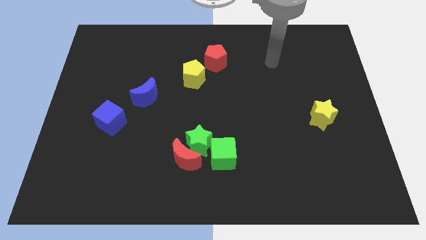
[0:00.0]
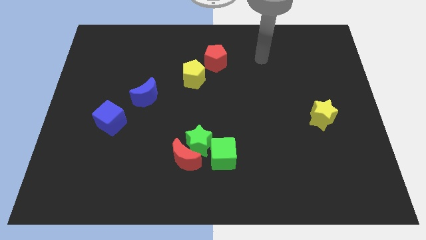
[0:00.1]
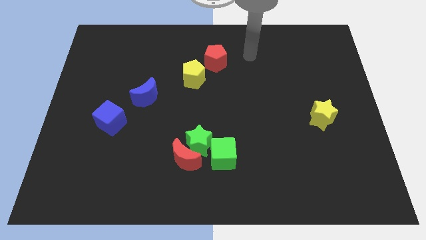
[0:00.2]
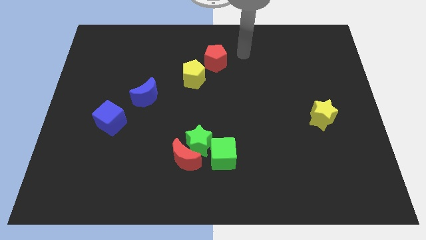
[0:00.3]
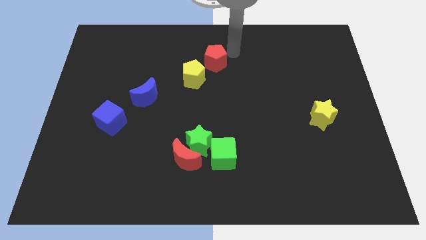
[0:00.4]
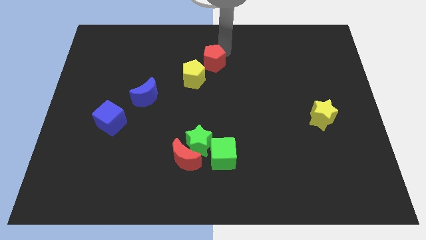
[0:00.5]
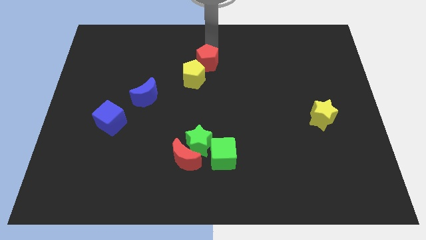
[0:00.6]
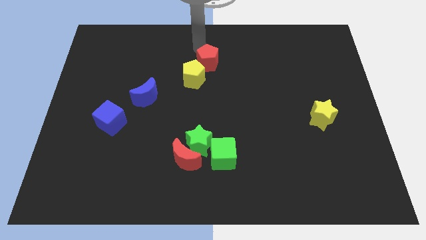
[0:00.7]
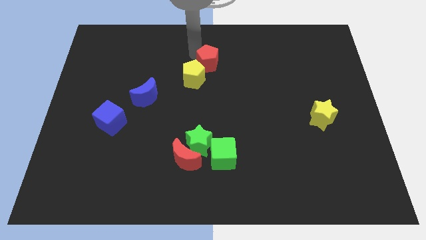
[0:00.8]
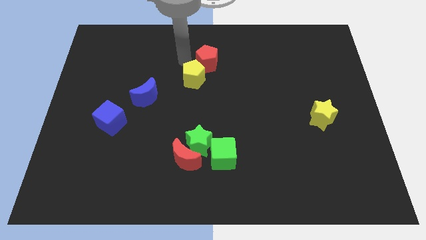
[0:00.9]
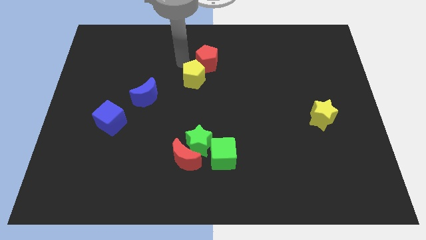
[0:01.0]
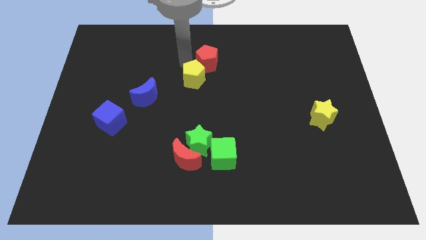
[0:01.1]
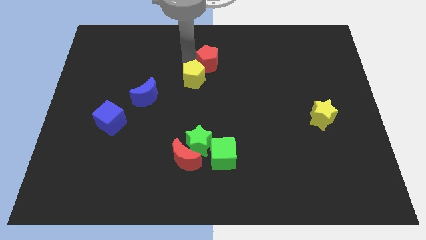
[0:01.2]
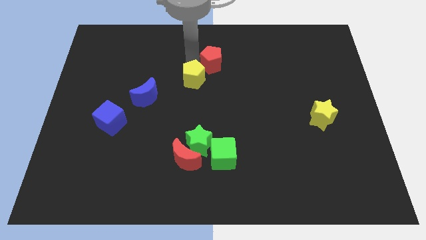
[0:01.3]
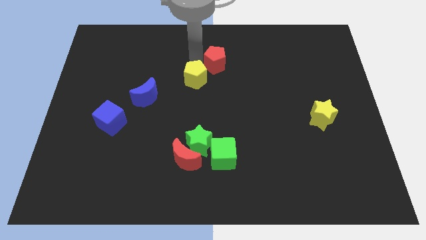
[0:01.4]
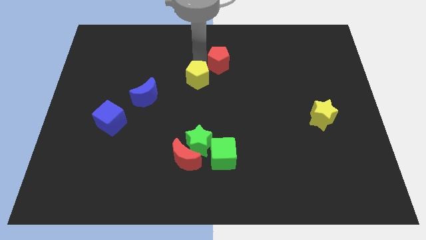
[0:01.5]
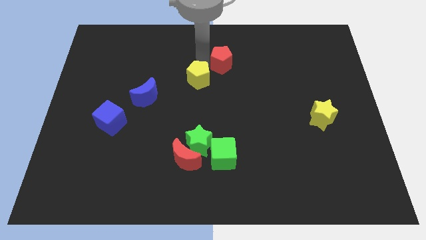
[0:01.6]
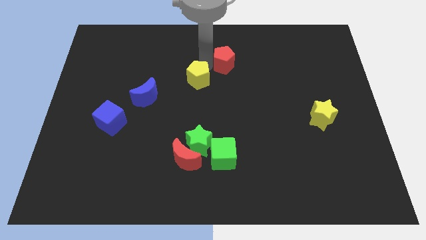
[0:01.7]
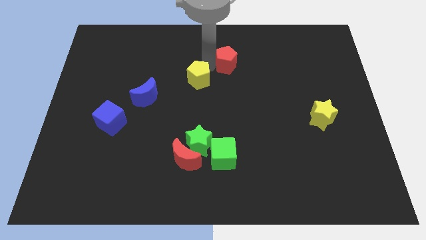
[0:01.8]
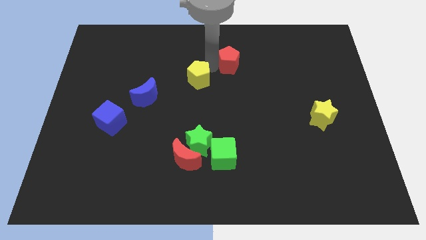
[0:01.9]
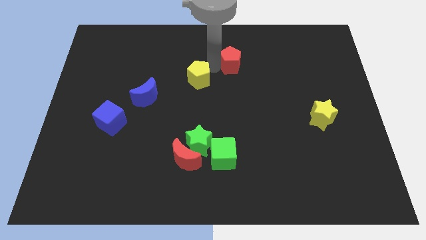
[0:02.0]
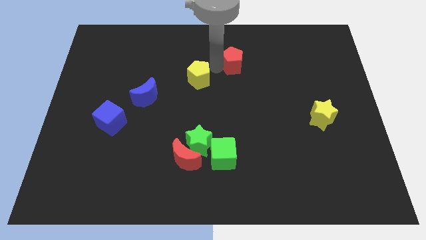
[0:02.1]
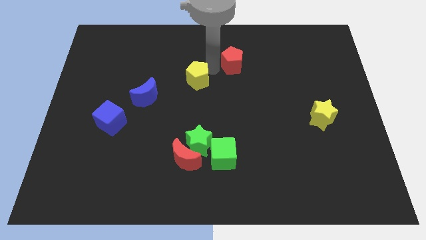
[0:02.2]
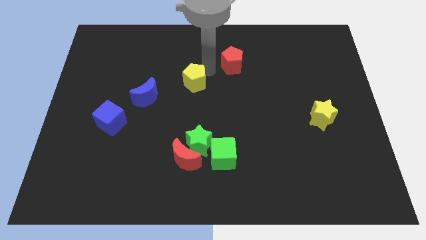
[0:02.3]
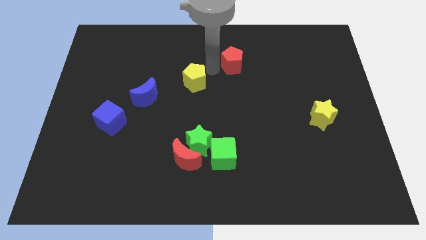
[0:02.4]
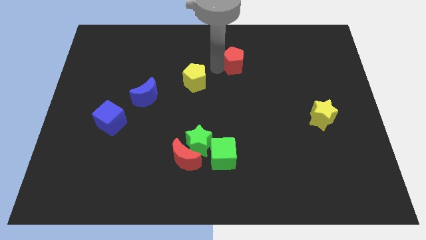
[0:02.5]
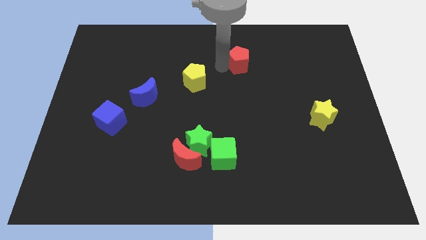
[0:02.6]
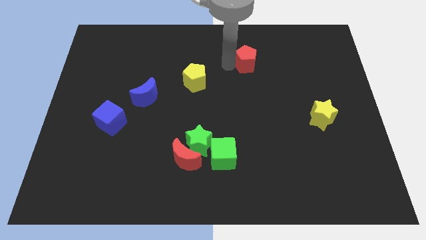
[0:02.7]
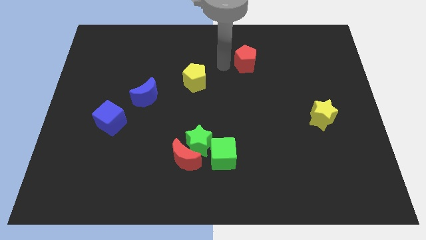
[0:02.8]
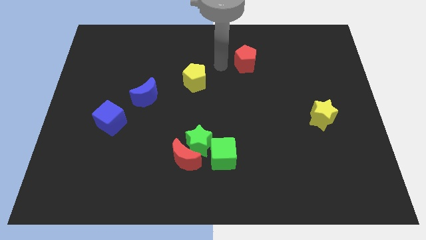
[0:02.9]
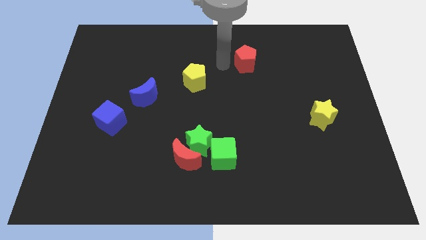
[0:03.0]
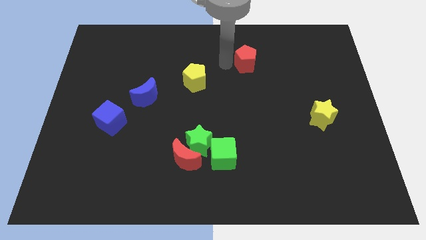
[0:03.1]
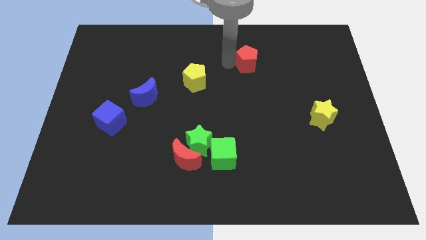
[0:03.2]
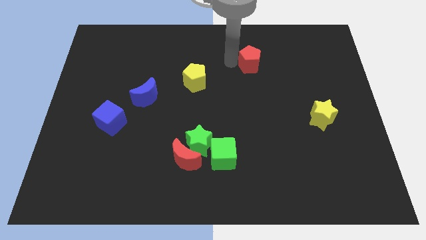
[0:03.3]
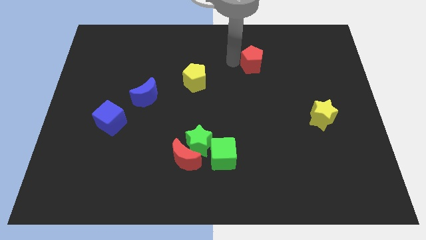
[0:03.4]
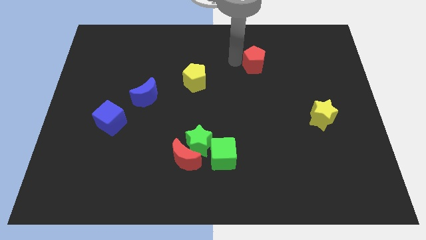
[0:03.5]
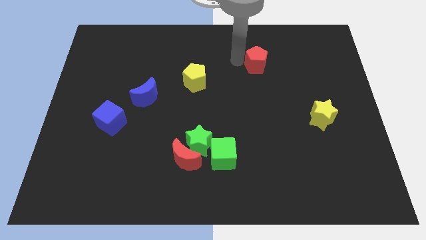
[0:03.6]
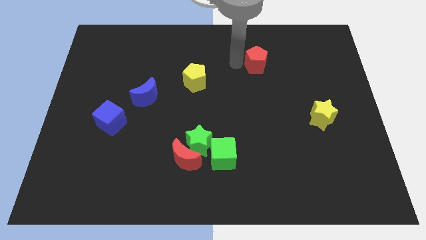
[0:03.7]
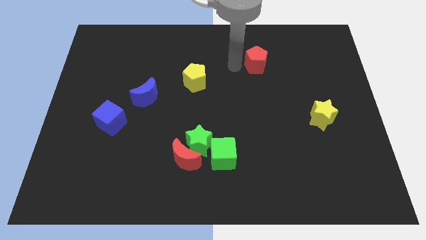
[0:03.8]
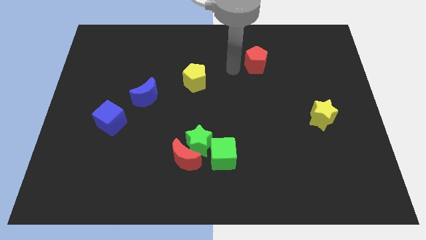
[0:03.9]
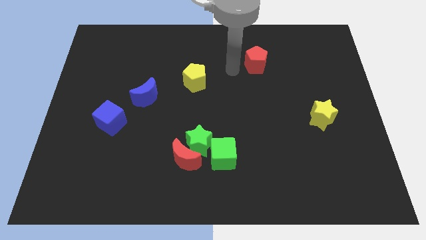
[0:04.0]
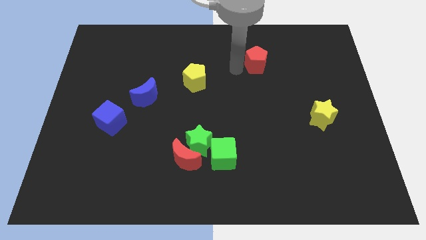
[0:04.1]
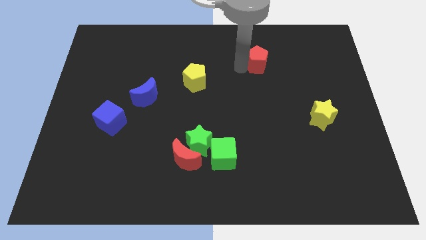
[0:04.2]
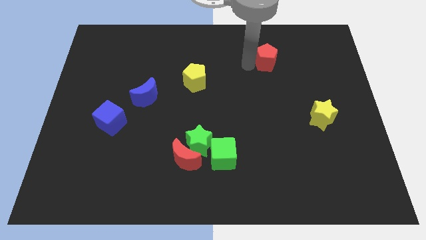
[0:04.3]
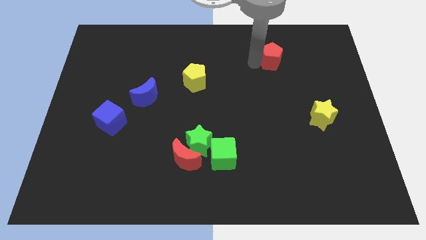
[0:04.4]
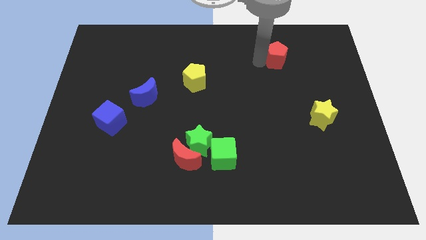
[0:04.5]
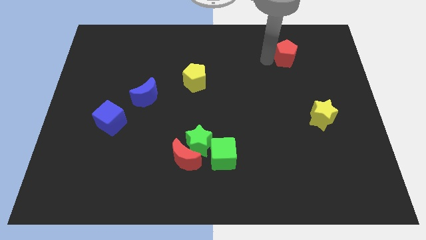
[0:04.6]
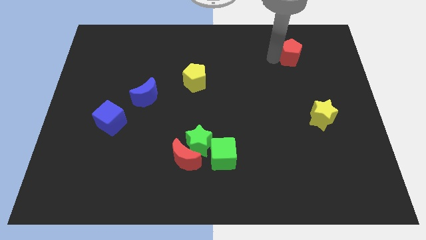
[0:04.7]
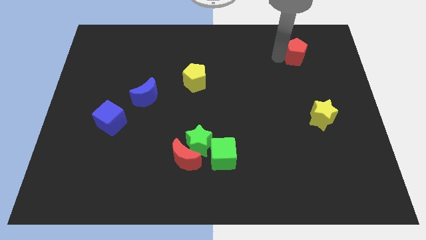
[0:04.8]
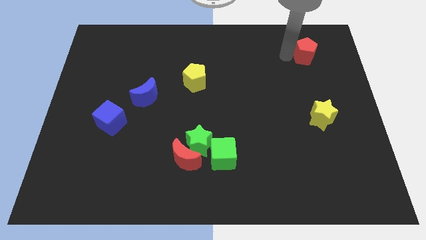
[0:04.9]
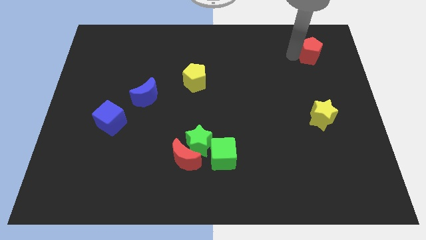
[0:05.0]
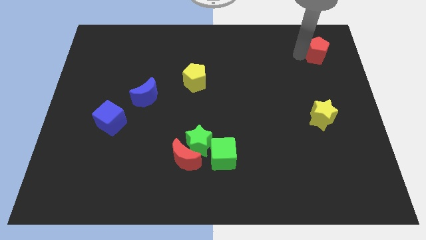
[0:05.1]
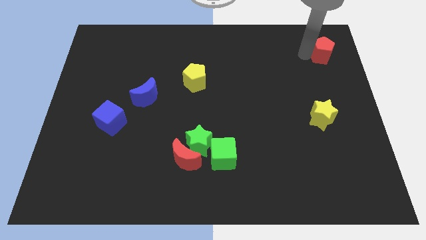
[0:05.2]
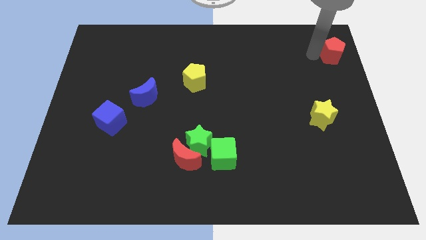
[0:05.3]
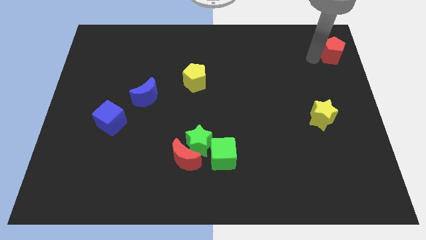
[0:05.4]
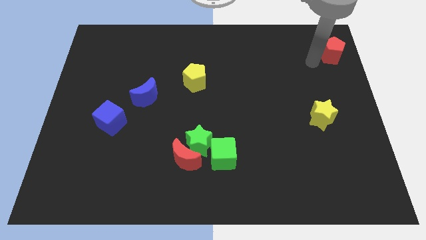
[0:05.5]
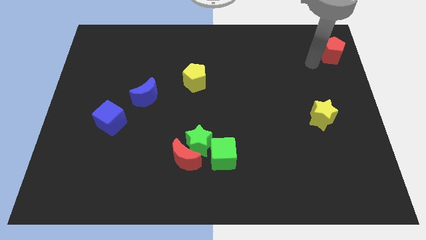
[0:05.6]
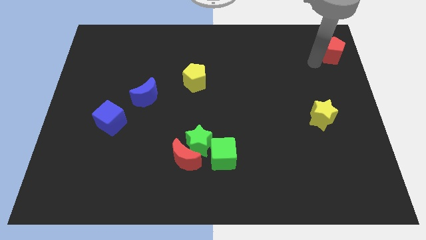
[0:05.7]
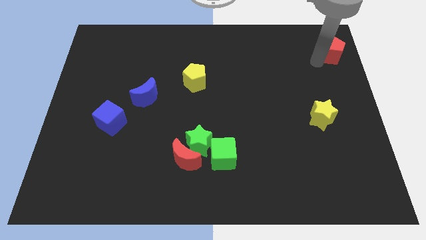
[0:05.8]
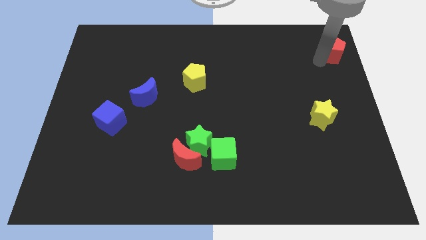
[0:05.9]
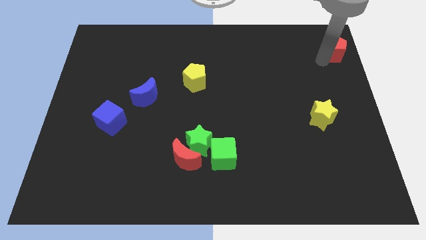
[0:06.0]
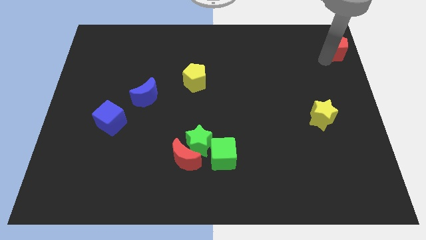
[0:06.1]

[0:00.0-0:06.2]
slide the red pentagon to the upper right corner

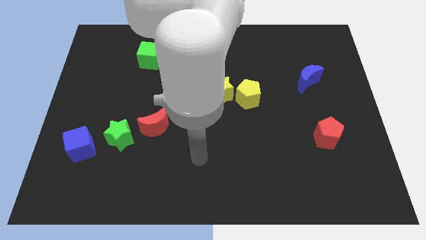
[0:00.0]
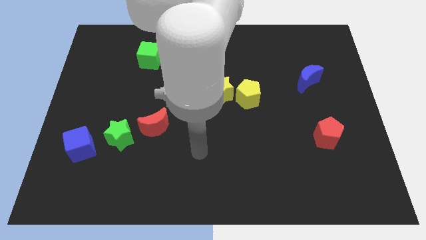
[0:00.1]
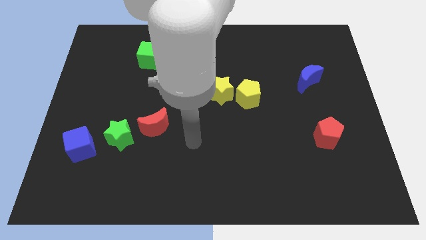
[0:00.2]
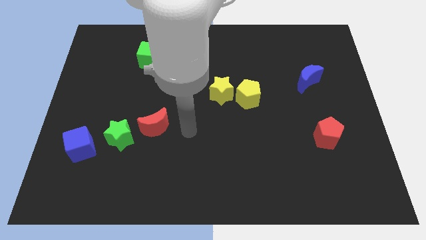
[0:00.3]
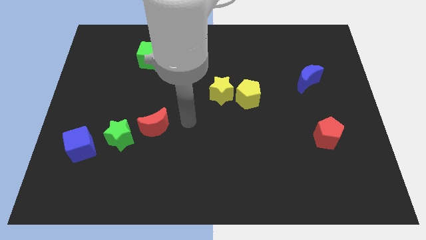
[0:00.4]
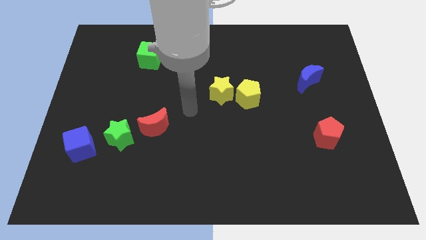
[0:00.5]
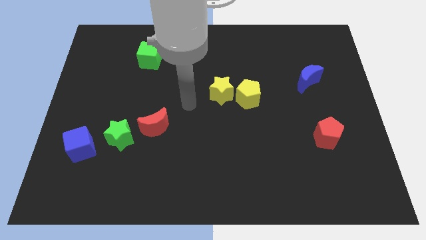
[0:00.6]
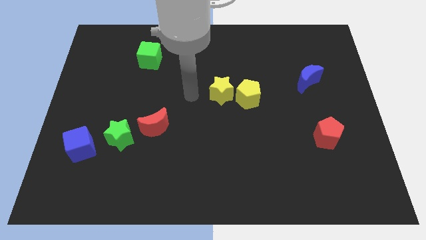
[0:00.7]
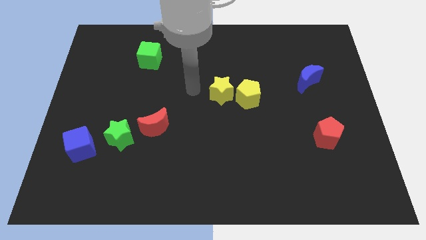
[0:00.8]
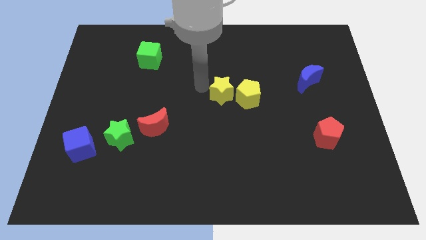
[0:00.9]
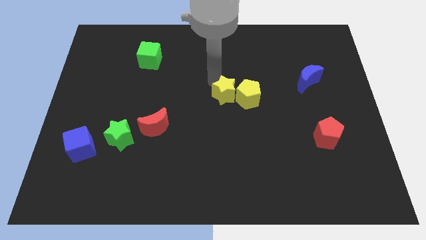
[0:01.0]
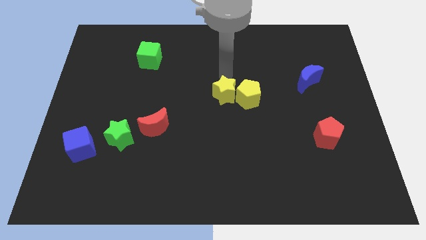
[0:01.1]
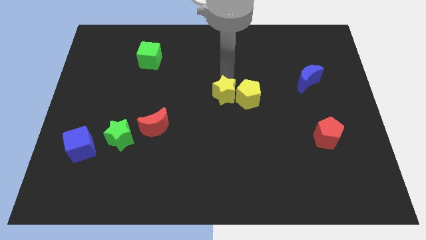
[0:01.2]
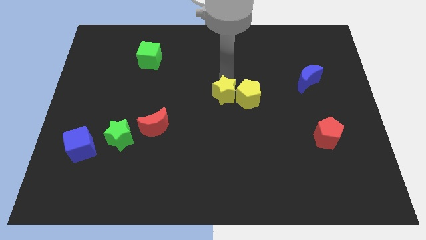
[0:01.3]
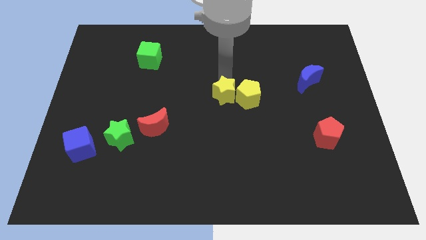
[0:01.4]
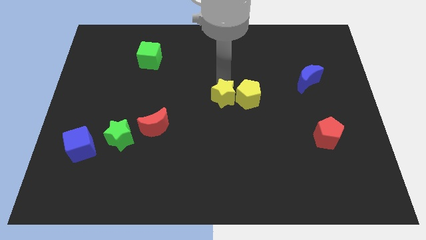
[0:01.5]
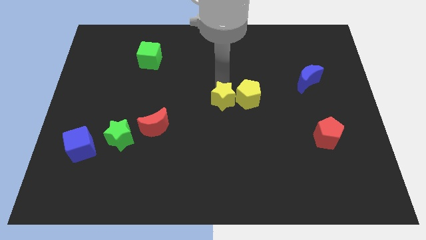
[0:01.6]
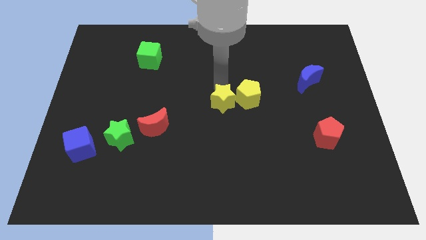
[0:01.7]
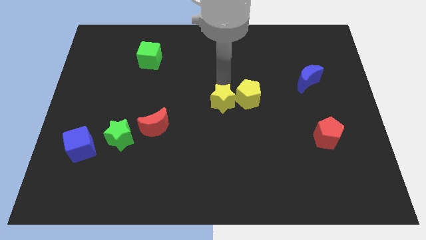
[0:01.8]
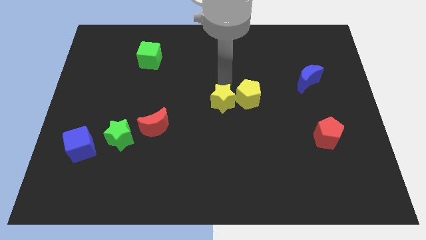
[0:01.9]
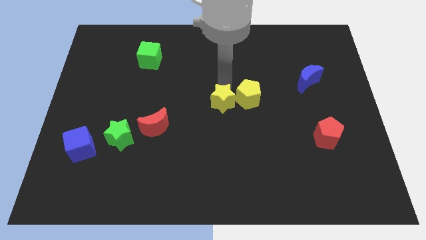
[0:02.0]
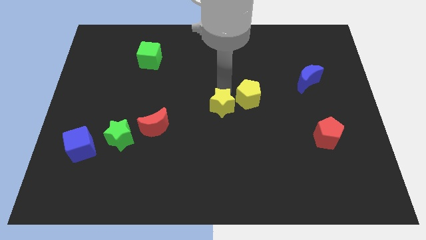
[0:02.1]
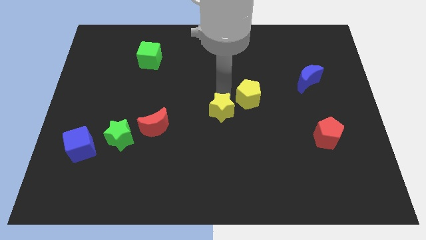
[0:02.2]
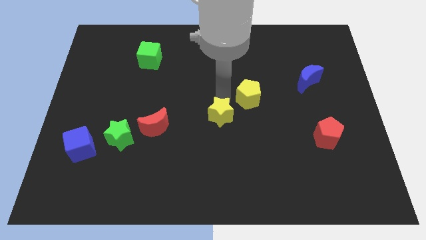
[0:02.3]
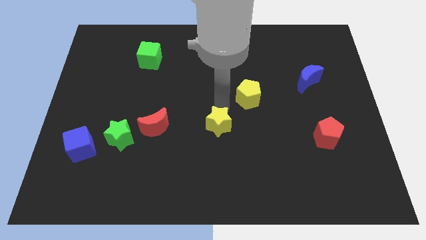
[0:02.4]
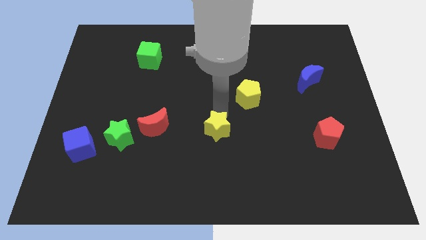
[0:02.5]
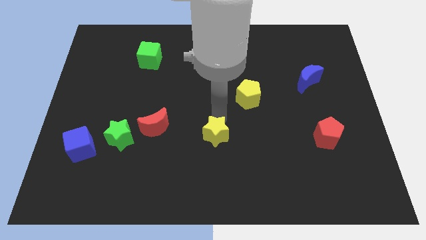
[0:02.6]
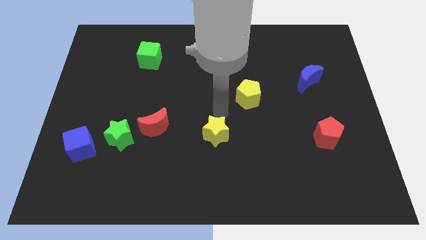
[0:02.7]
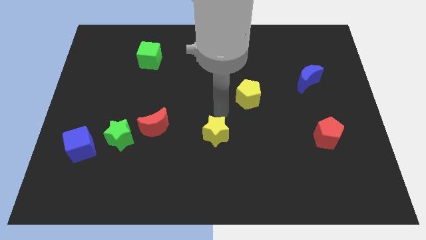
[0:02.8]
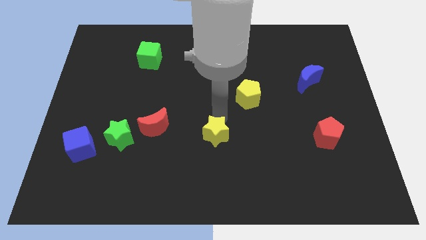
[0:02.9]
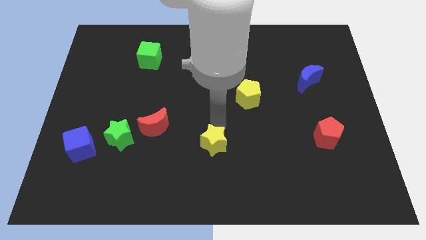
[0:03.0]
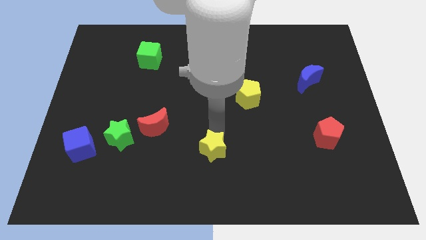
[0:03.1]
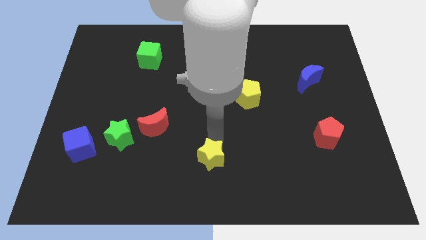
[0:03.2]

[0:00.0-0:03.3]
push the yellow star to the bottom side
